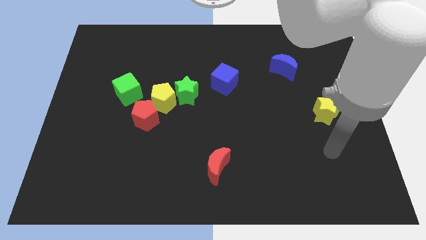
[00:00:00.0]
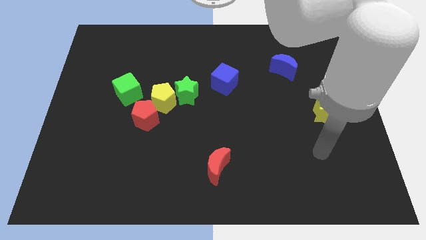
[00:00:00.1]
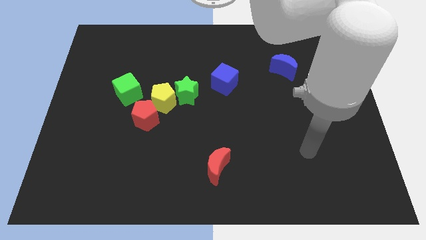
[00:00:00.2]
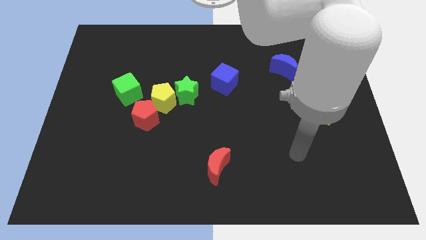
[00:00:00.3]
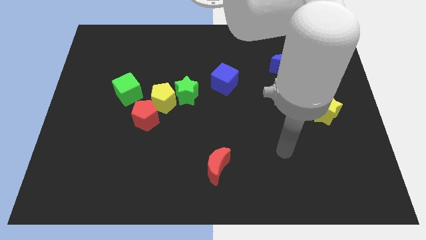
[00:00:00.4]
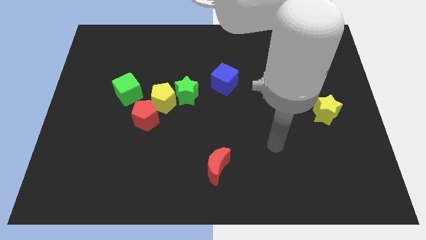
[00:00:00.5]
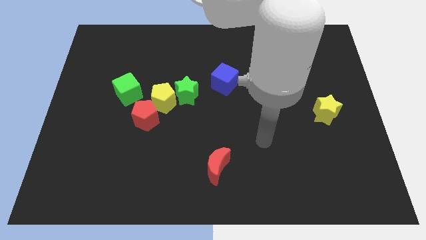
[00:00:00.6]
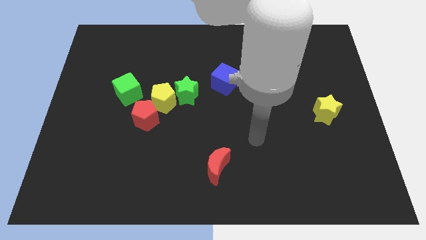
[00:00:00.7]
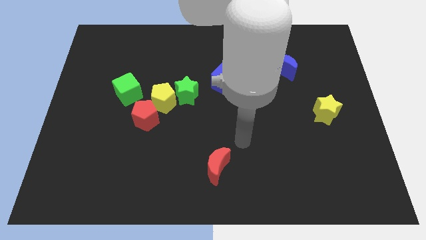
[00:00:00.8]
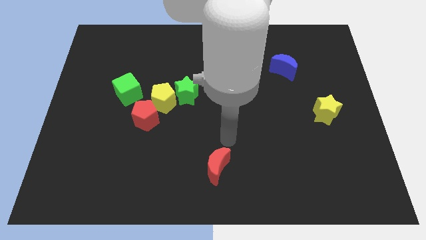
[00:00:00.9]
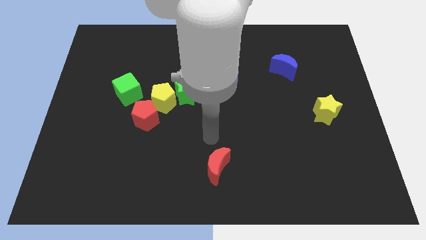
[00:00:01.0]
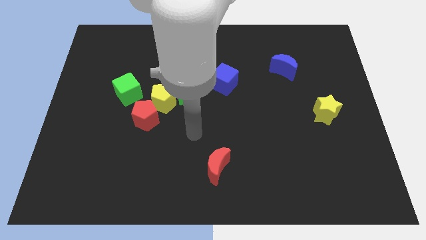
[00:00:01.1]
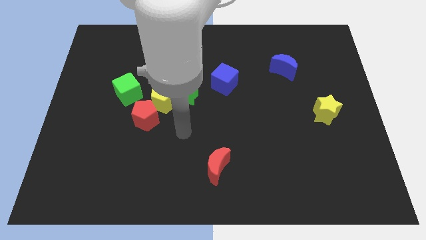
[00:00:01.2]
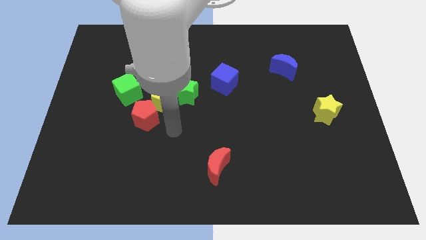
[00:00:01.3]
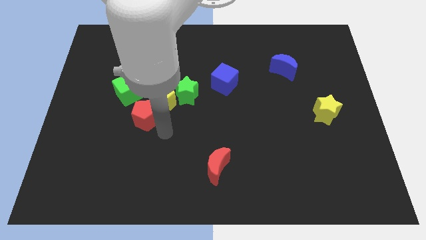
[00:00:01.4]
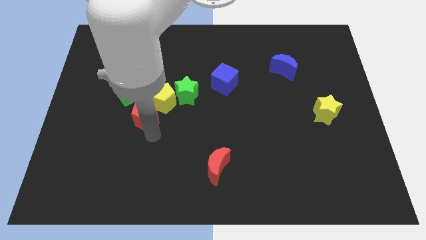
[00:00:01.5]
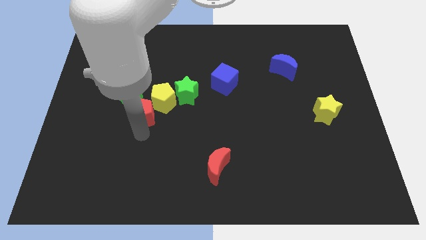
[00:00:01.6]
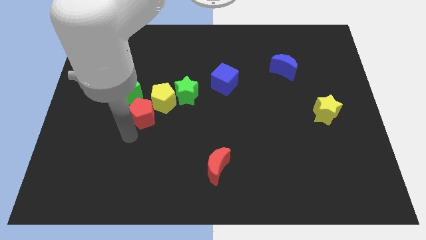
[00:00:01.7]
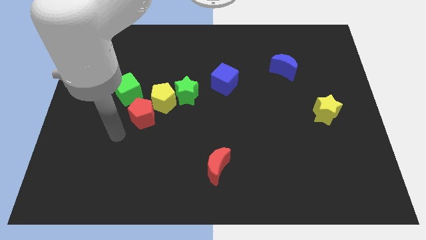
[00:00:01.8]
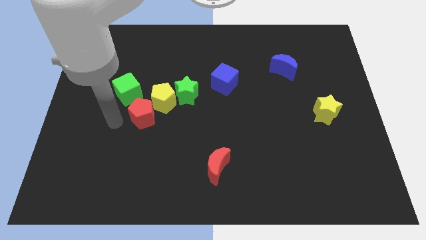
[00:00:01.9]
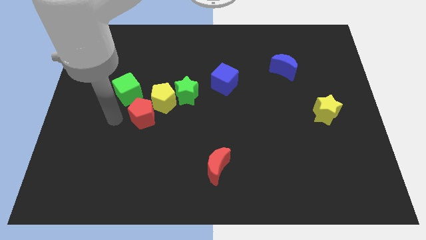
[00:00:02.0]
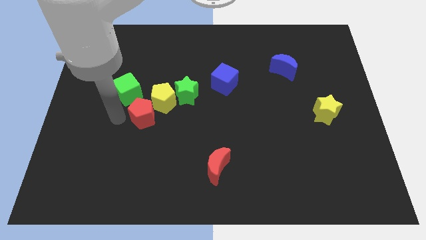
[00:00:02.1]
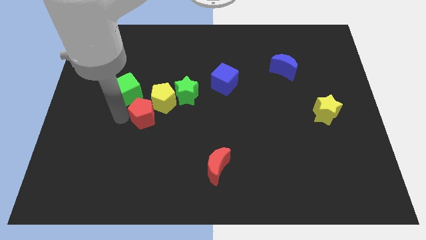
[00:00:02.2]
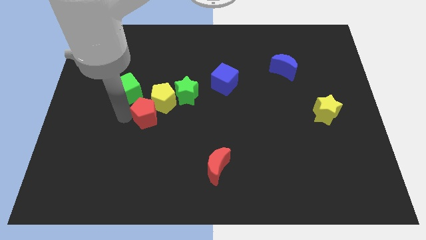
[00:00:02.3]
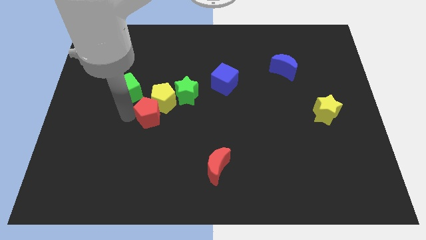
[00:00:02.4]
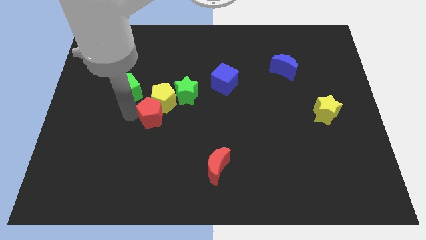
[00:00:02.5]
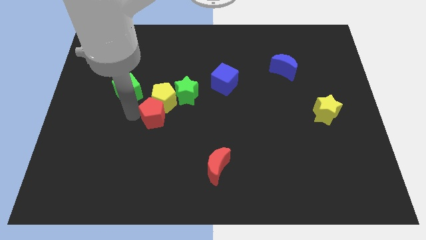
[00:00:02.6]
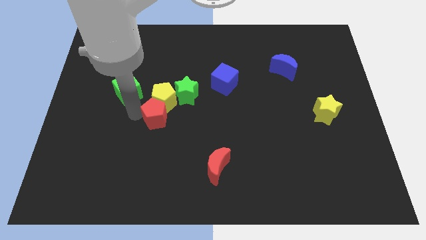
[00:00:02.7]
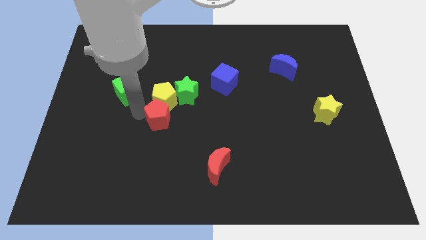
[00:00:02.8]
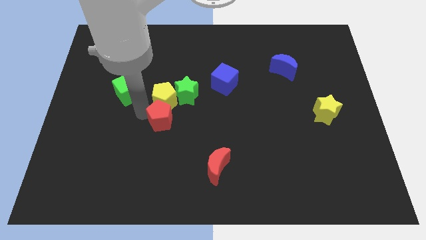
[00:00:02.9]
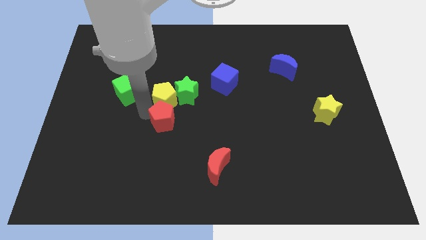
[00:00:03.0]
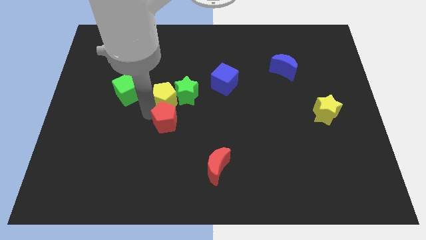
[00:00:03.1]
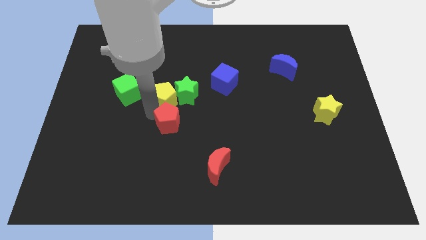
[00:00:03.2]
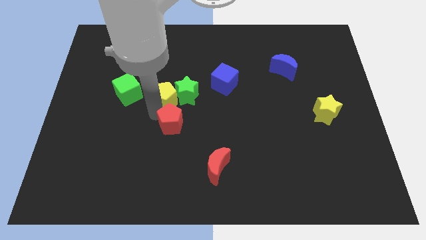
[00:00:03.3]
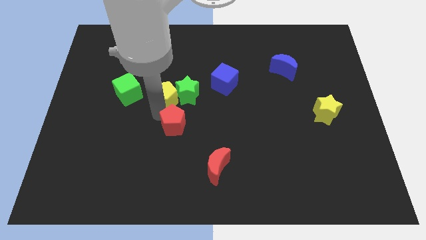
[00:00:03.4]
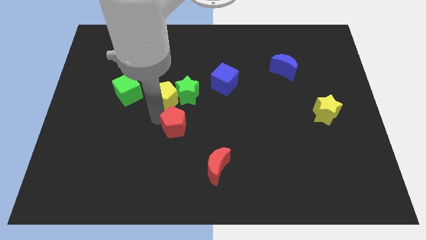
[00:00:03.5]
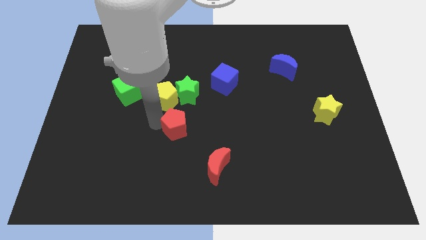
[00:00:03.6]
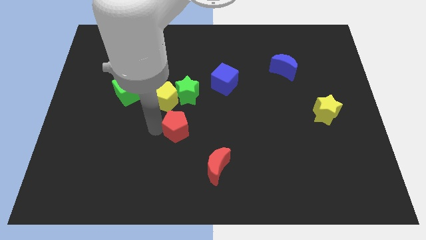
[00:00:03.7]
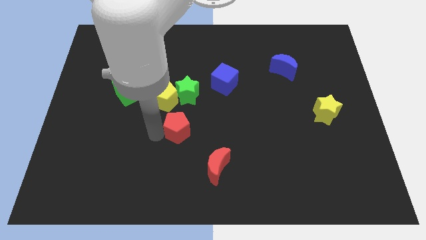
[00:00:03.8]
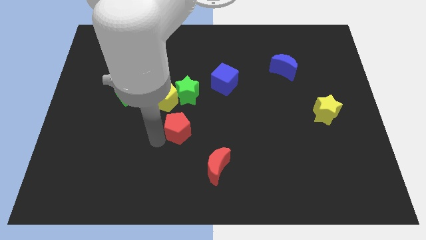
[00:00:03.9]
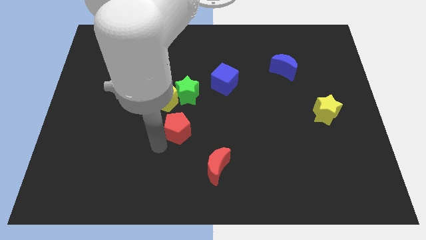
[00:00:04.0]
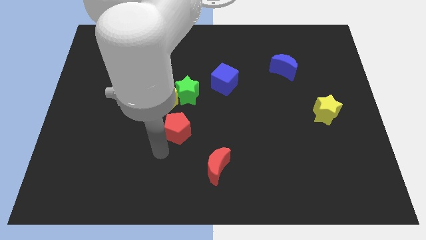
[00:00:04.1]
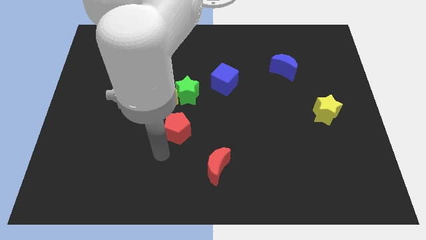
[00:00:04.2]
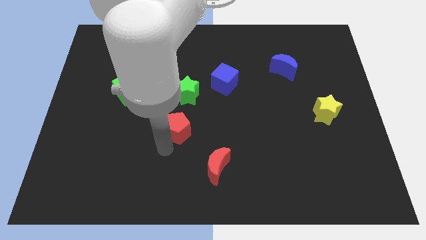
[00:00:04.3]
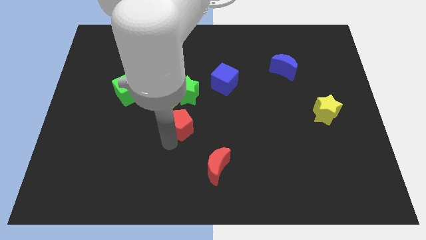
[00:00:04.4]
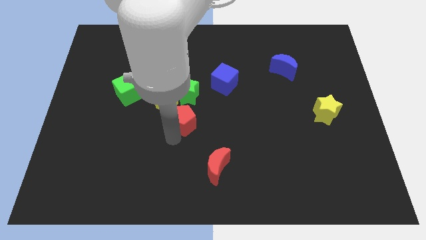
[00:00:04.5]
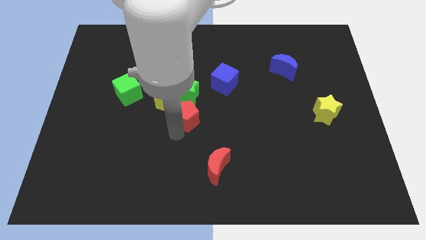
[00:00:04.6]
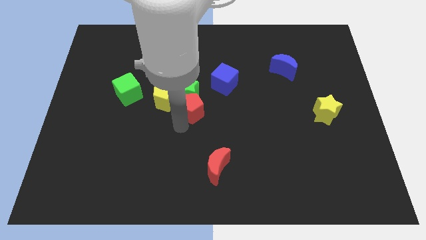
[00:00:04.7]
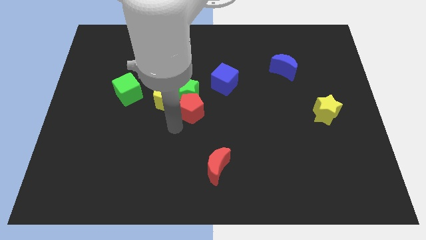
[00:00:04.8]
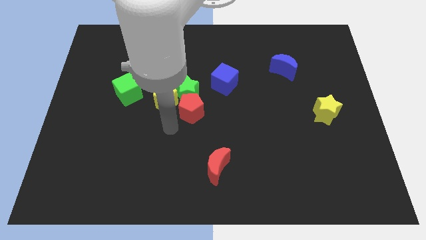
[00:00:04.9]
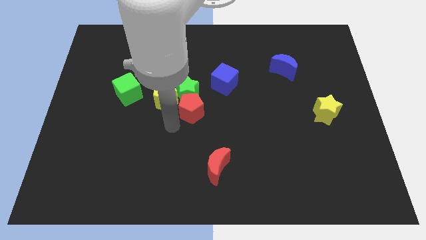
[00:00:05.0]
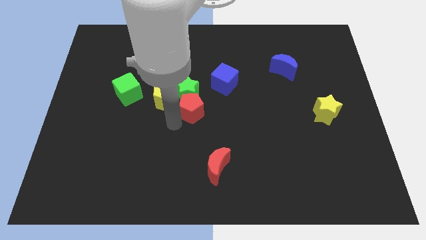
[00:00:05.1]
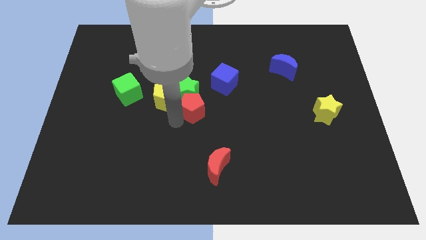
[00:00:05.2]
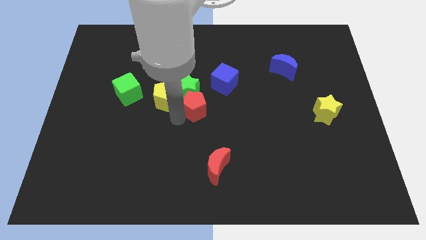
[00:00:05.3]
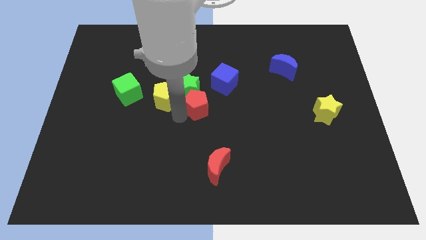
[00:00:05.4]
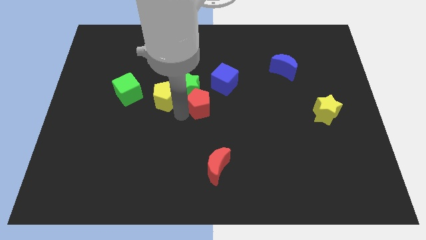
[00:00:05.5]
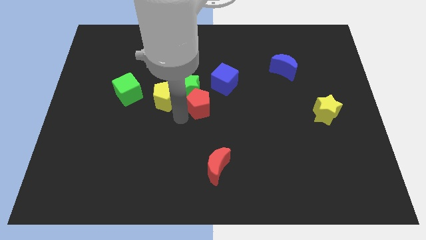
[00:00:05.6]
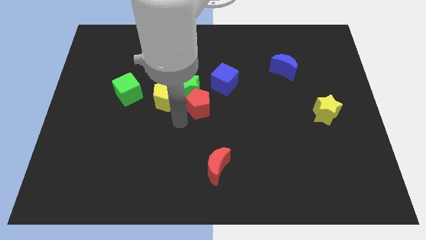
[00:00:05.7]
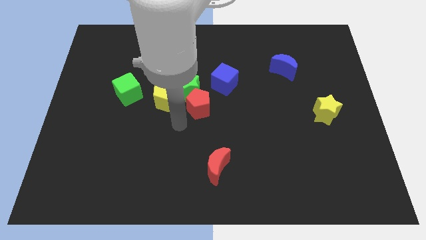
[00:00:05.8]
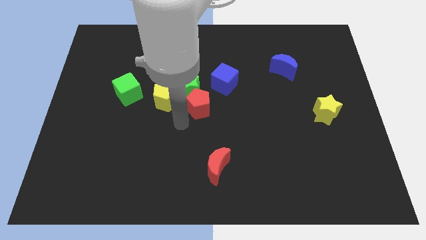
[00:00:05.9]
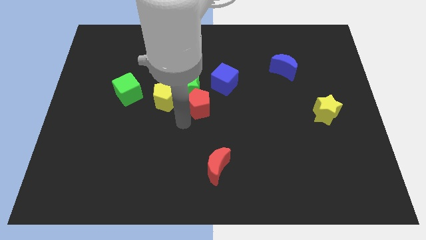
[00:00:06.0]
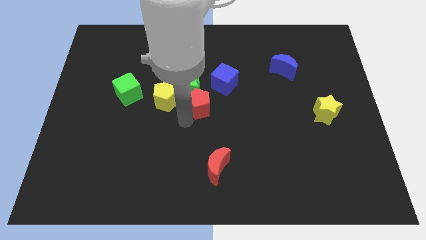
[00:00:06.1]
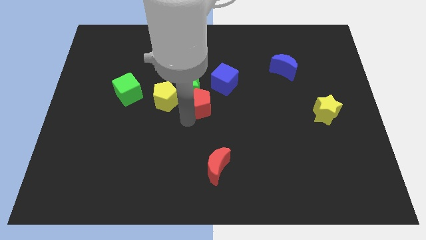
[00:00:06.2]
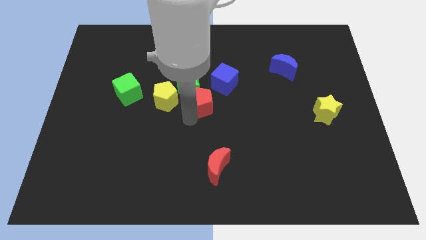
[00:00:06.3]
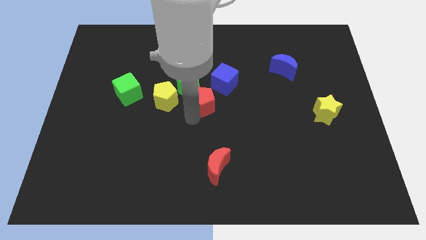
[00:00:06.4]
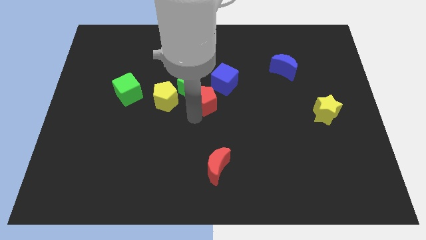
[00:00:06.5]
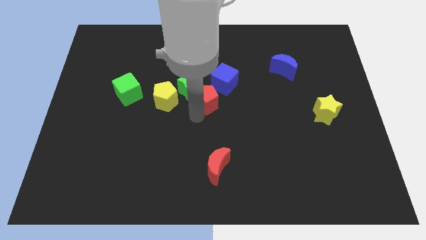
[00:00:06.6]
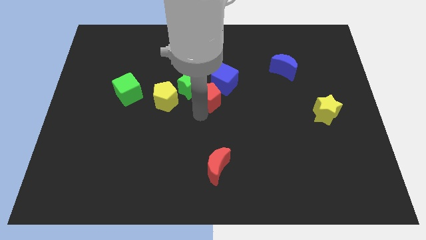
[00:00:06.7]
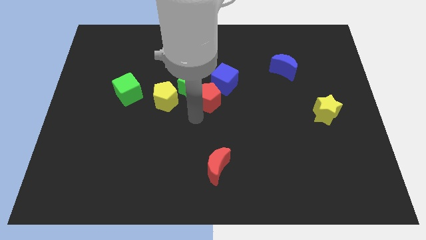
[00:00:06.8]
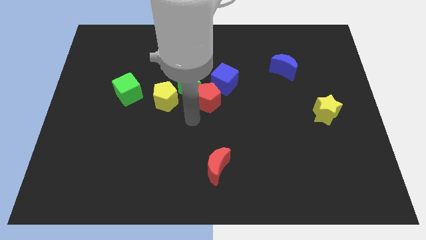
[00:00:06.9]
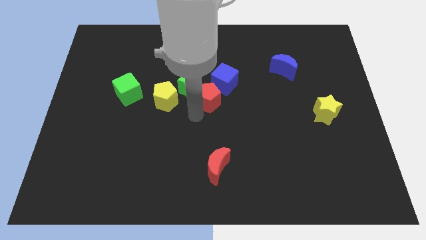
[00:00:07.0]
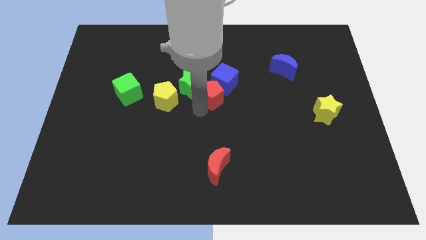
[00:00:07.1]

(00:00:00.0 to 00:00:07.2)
slide the red pentagon next to the blue cube
